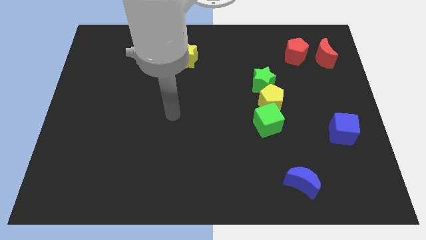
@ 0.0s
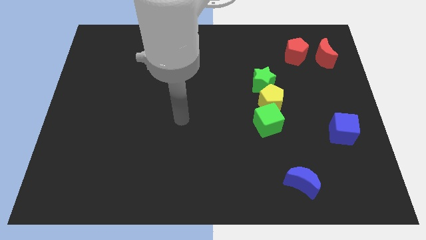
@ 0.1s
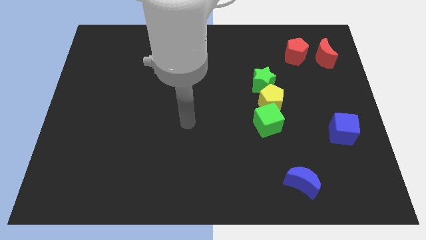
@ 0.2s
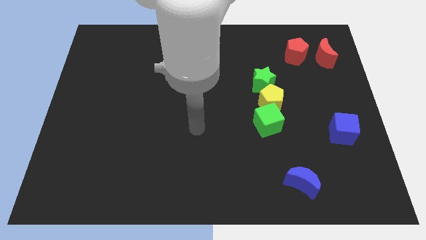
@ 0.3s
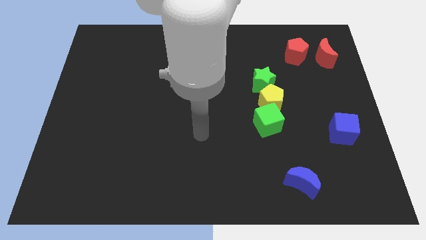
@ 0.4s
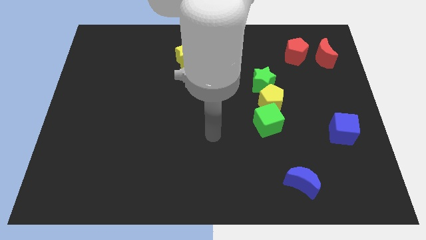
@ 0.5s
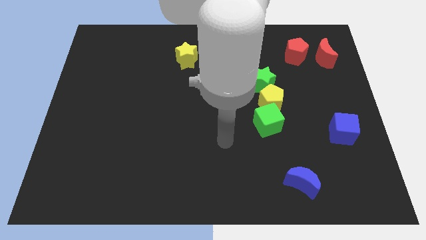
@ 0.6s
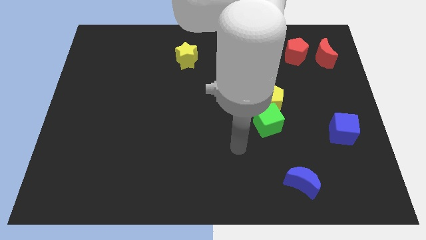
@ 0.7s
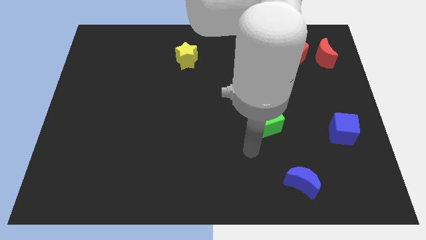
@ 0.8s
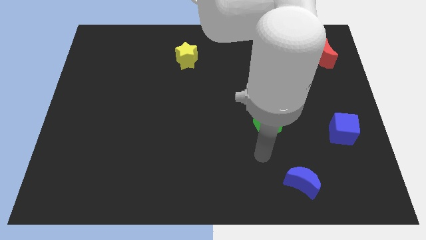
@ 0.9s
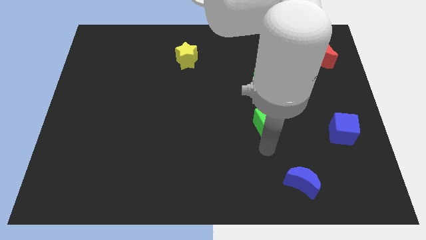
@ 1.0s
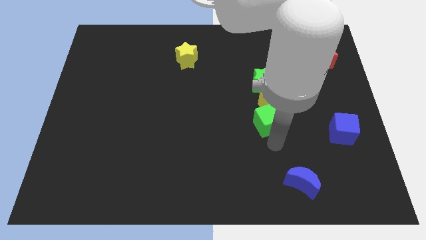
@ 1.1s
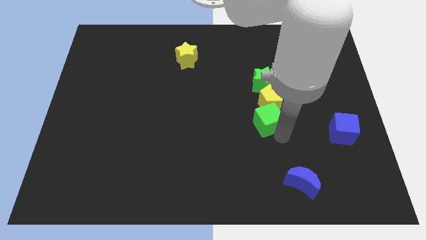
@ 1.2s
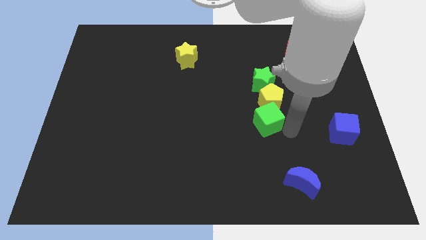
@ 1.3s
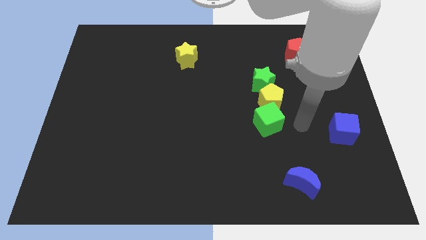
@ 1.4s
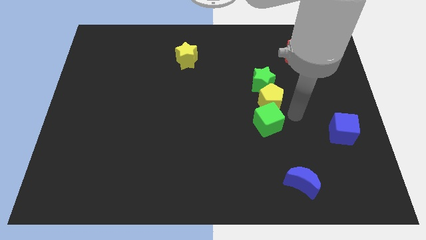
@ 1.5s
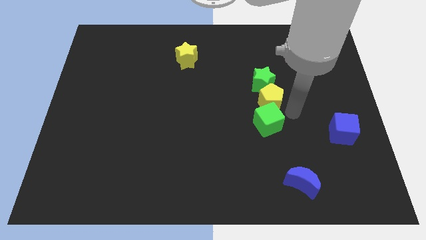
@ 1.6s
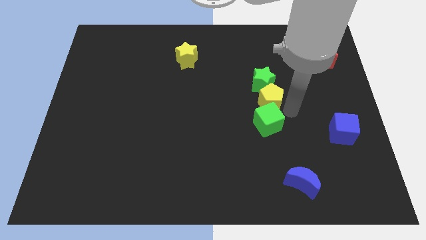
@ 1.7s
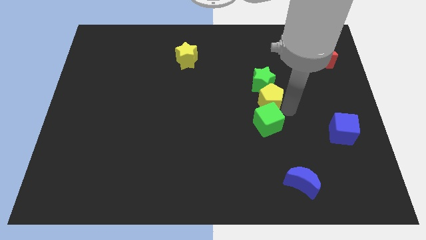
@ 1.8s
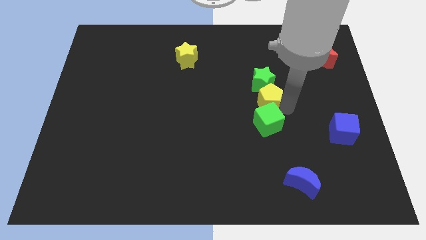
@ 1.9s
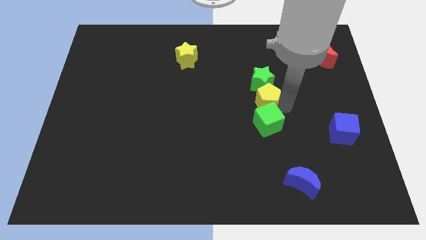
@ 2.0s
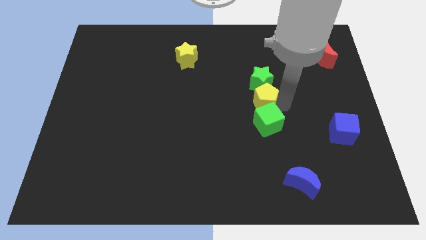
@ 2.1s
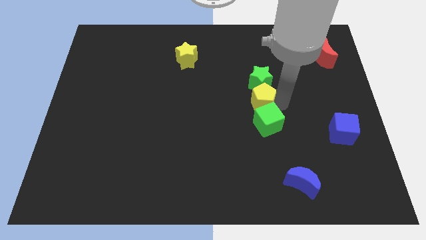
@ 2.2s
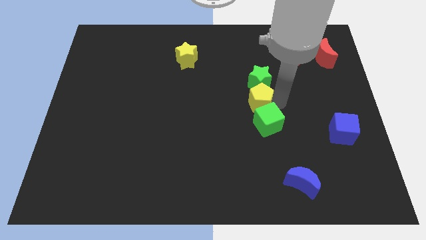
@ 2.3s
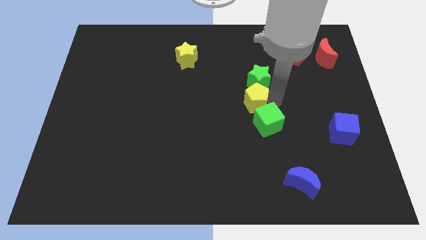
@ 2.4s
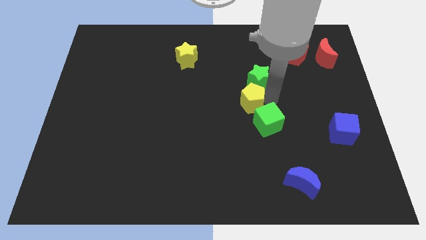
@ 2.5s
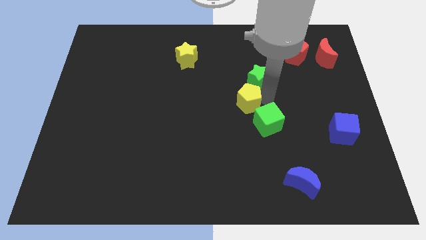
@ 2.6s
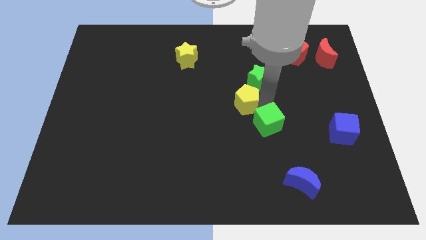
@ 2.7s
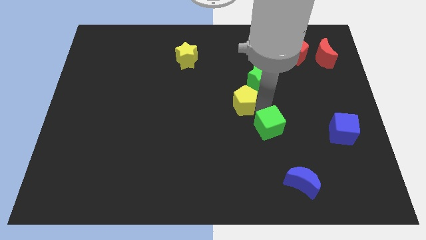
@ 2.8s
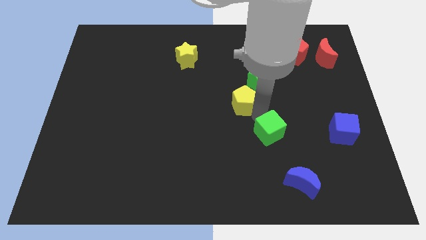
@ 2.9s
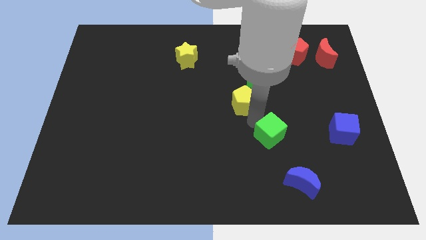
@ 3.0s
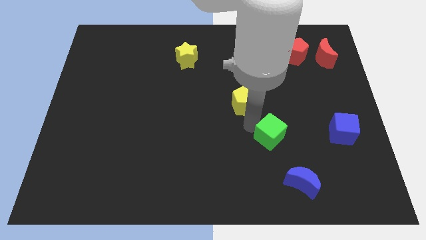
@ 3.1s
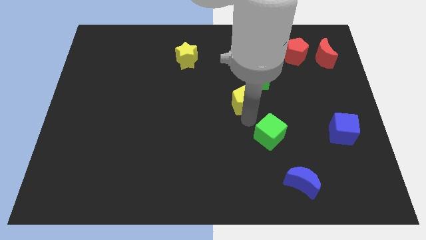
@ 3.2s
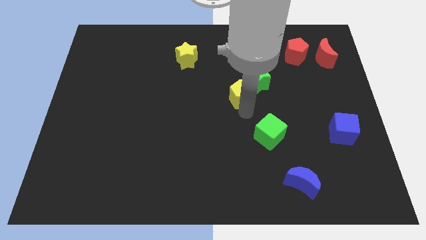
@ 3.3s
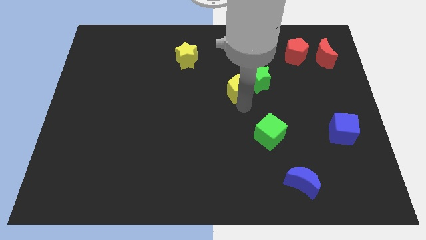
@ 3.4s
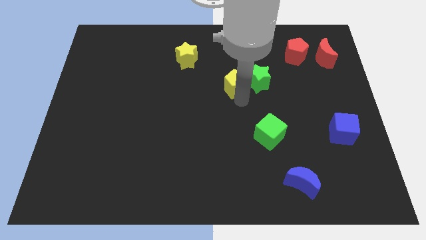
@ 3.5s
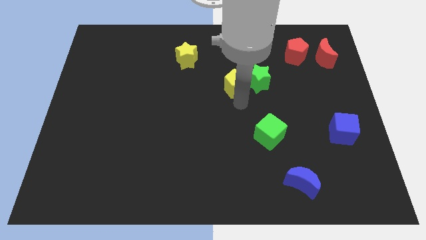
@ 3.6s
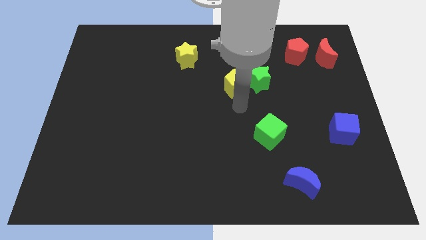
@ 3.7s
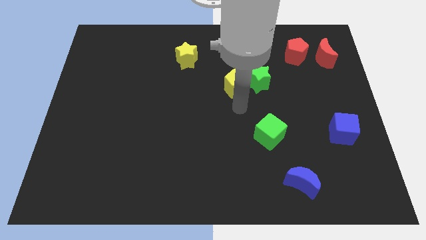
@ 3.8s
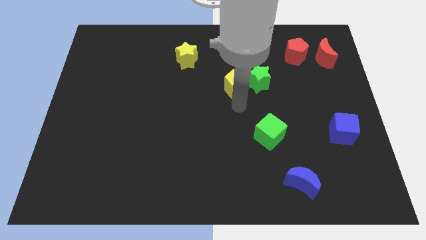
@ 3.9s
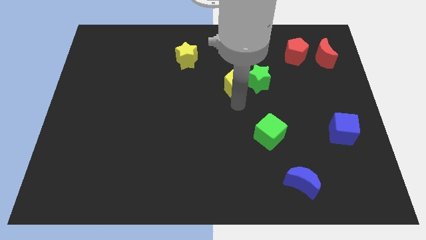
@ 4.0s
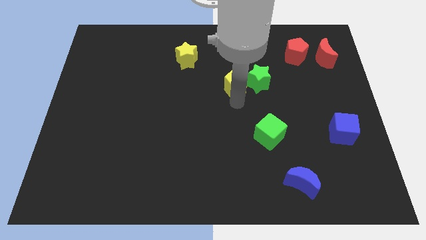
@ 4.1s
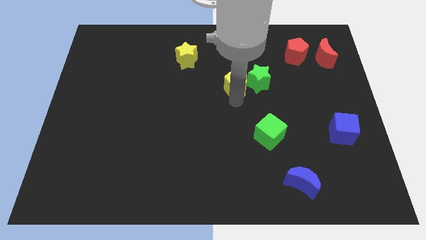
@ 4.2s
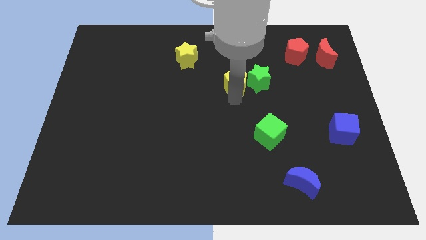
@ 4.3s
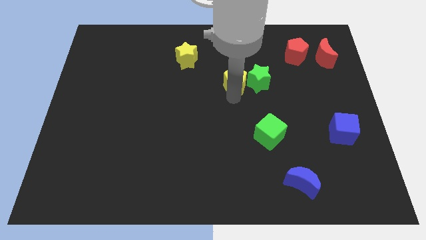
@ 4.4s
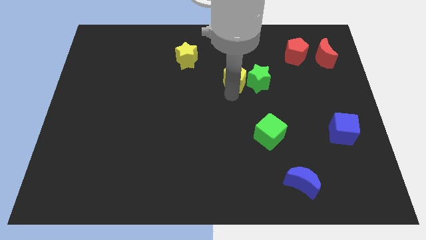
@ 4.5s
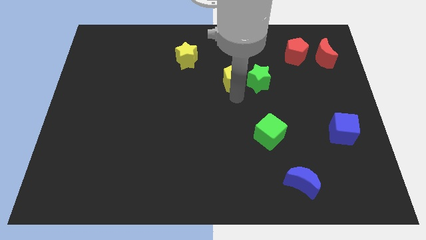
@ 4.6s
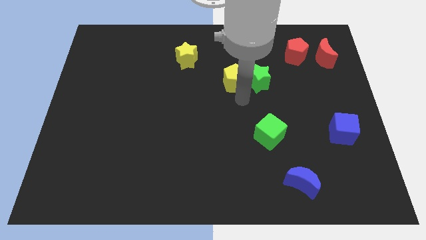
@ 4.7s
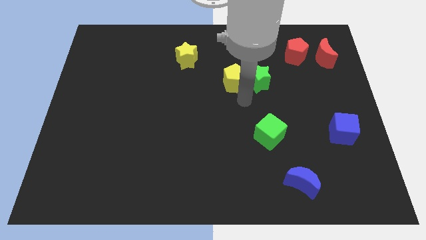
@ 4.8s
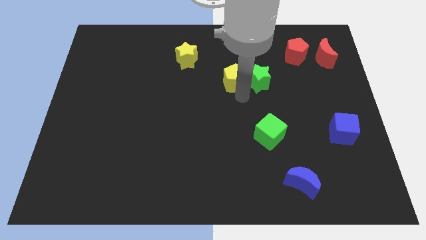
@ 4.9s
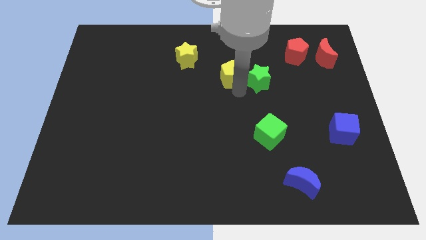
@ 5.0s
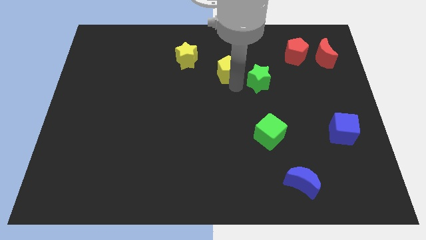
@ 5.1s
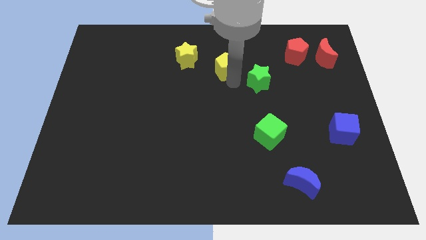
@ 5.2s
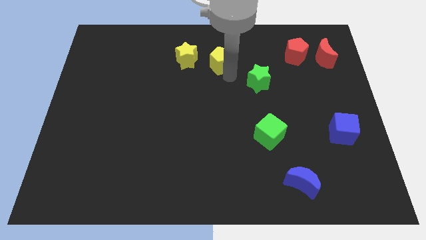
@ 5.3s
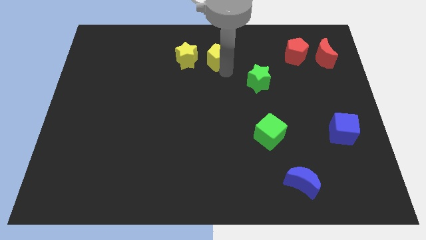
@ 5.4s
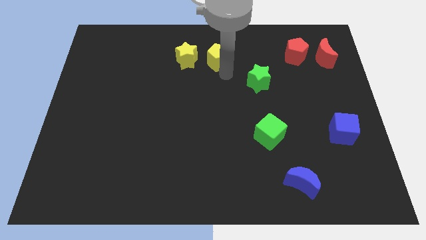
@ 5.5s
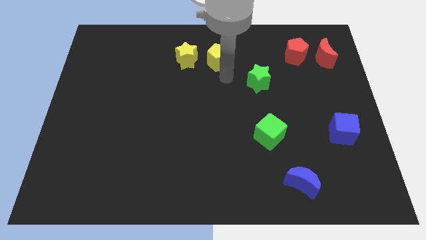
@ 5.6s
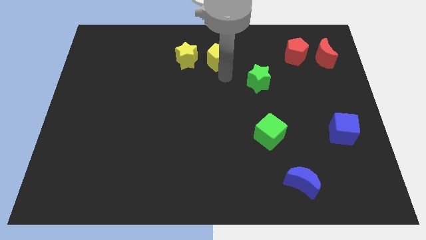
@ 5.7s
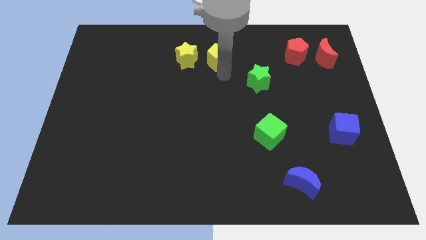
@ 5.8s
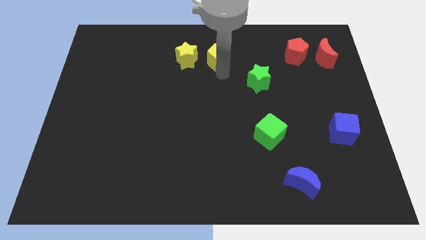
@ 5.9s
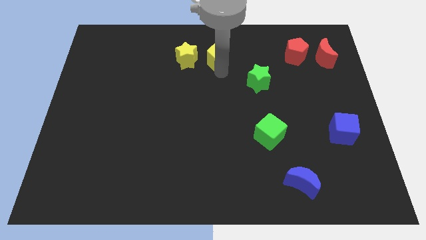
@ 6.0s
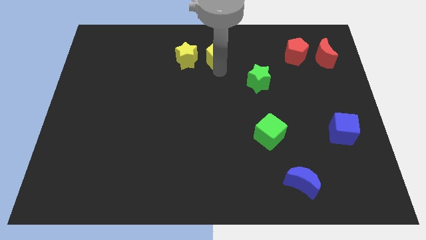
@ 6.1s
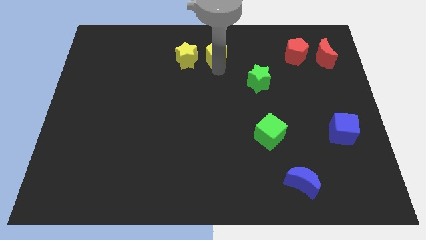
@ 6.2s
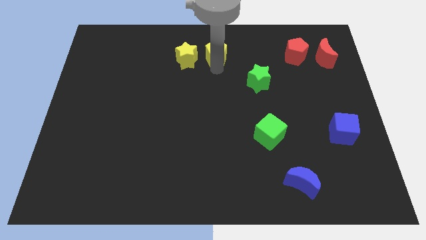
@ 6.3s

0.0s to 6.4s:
push the yellow pentagon to the top side
